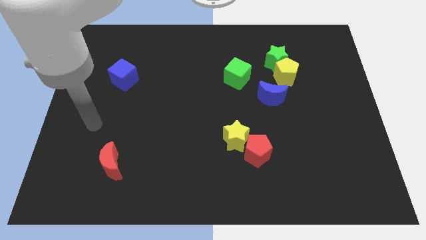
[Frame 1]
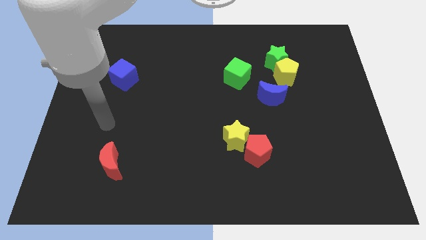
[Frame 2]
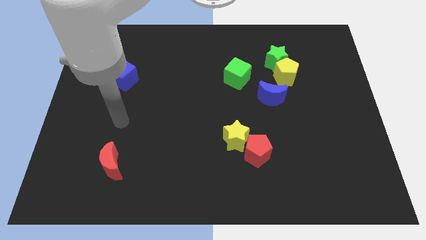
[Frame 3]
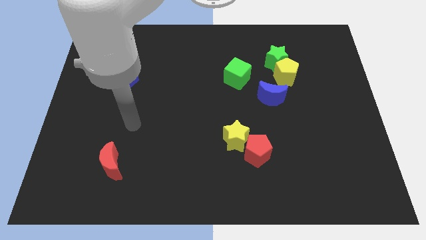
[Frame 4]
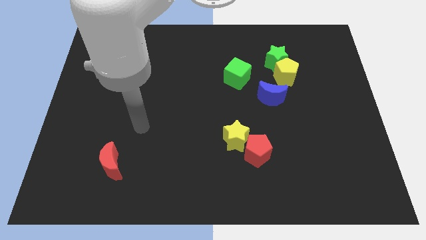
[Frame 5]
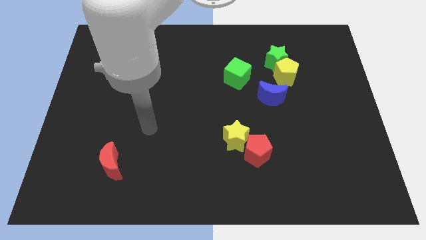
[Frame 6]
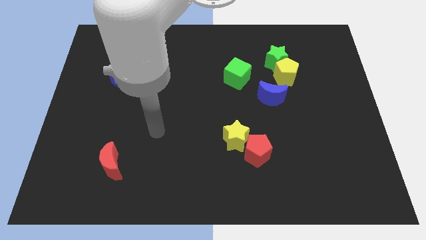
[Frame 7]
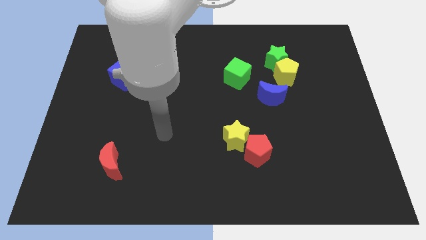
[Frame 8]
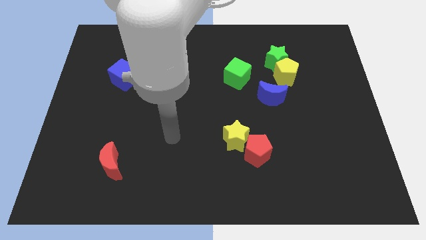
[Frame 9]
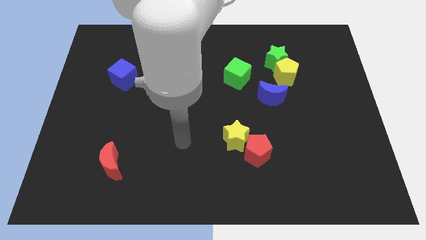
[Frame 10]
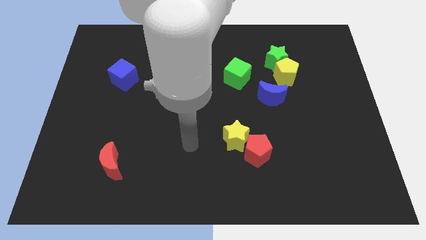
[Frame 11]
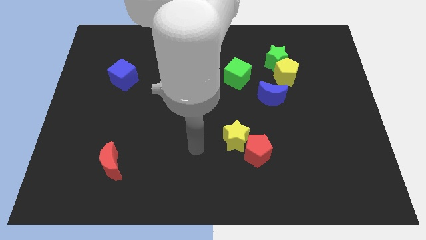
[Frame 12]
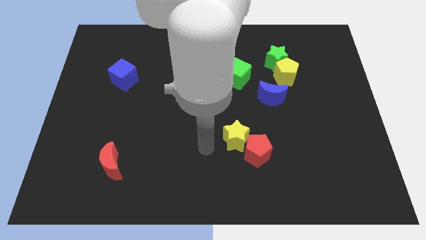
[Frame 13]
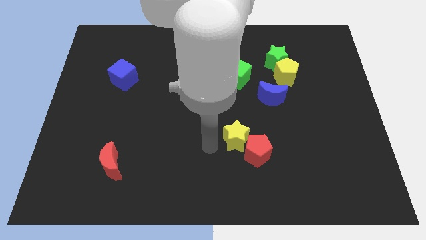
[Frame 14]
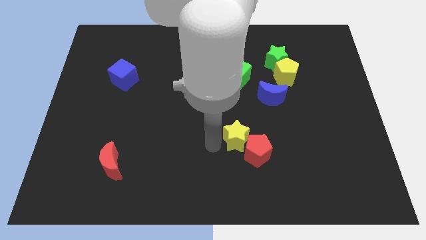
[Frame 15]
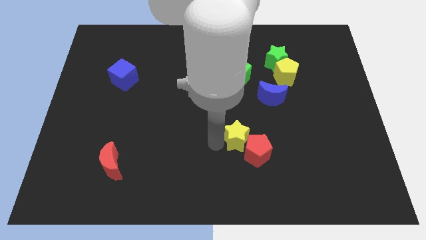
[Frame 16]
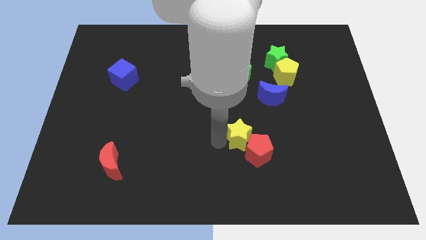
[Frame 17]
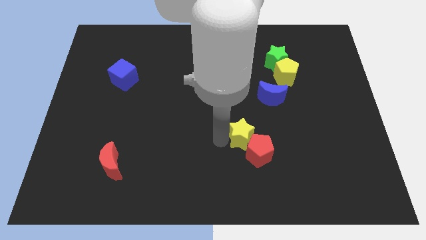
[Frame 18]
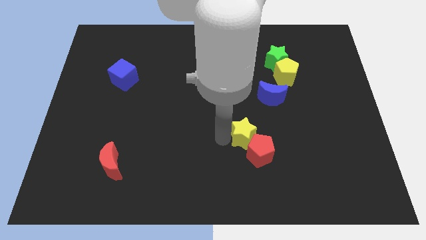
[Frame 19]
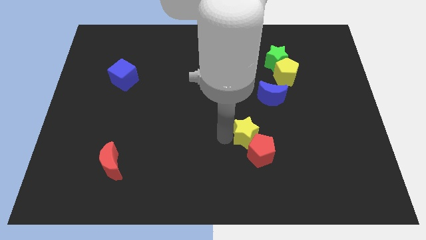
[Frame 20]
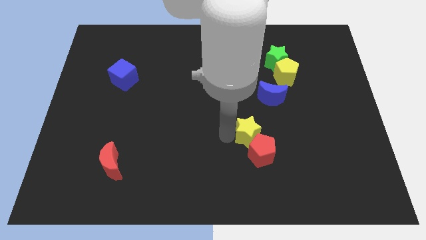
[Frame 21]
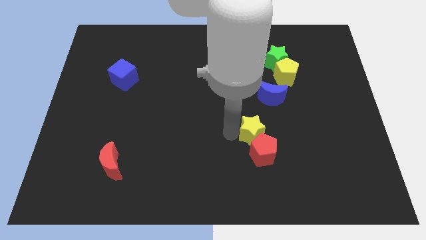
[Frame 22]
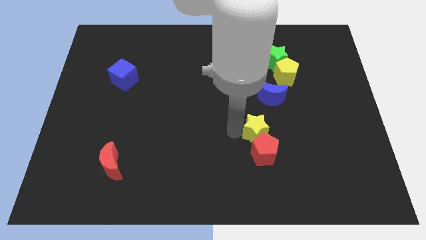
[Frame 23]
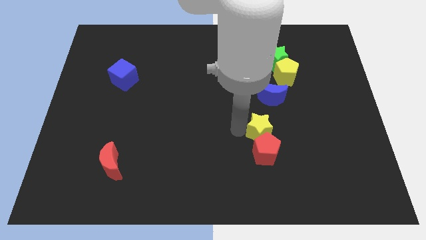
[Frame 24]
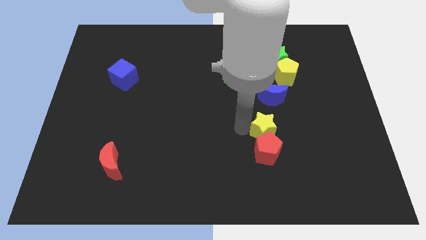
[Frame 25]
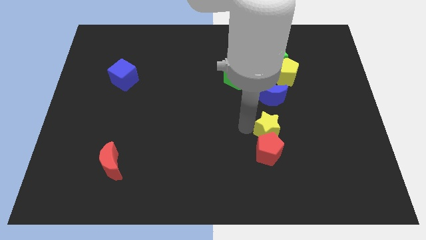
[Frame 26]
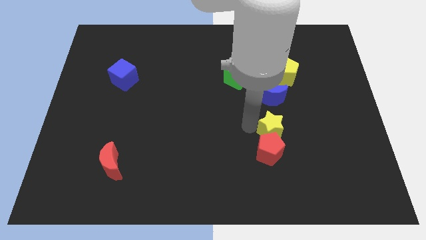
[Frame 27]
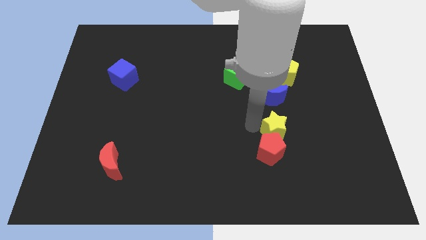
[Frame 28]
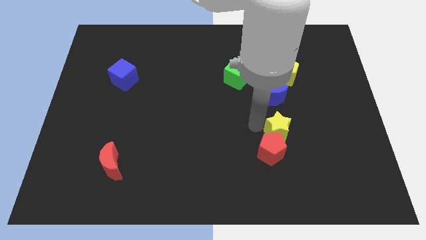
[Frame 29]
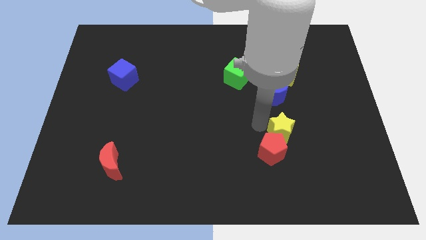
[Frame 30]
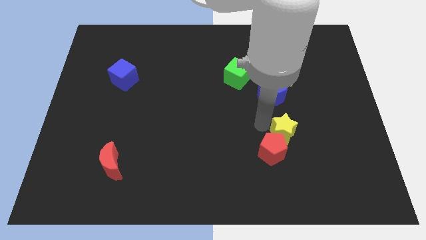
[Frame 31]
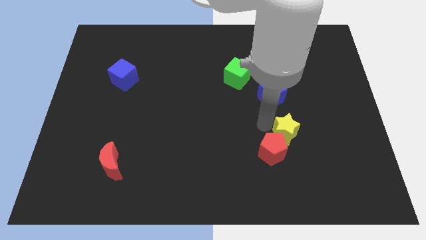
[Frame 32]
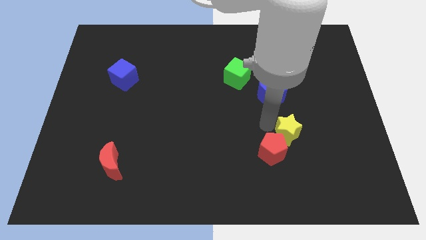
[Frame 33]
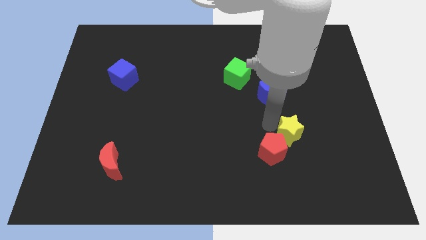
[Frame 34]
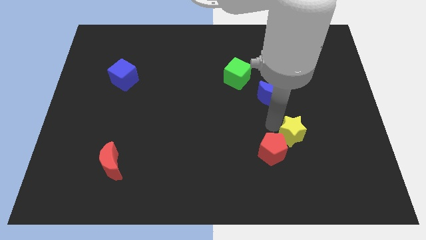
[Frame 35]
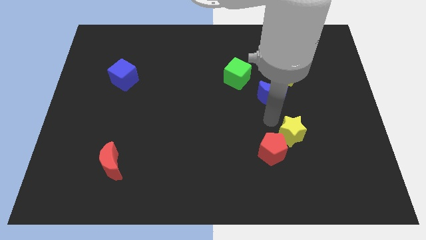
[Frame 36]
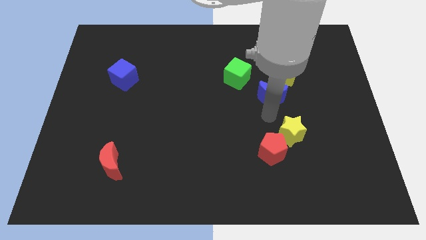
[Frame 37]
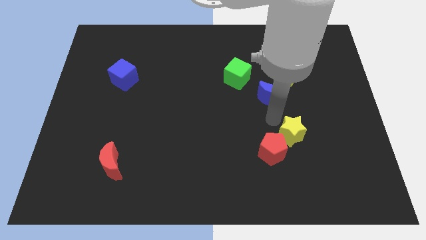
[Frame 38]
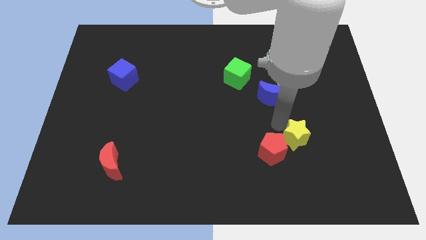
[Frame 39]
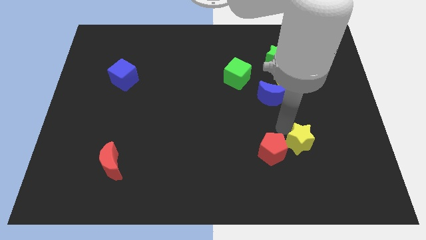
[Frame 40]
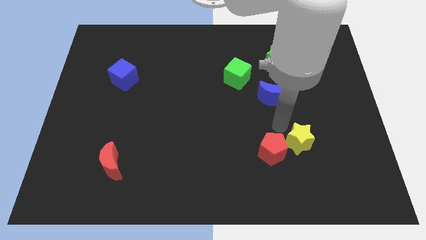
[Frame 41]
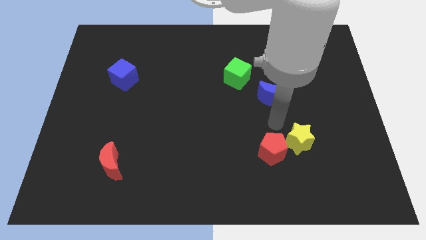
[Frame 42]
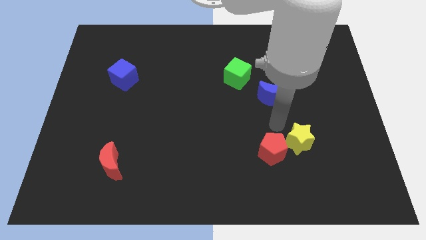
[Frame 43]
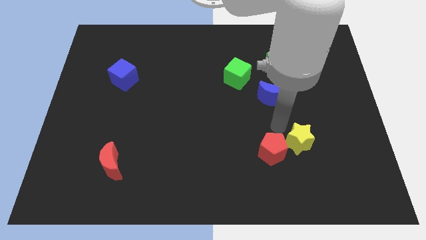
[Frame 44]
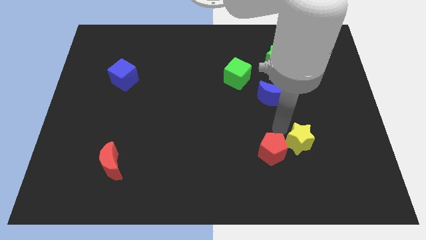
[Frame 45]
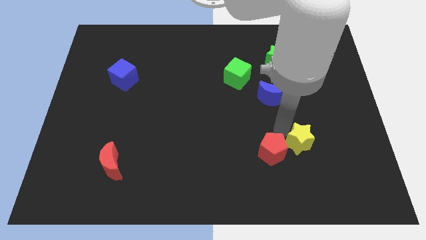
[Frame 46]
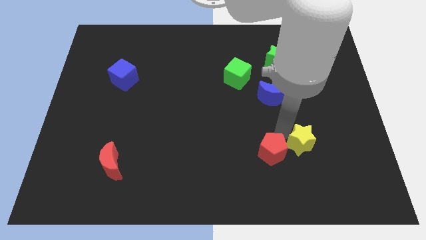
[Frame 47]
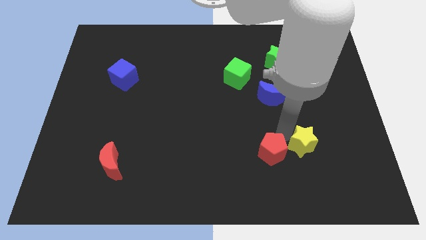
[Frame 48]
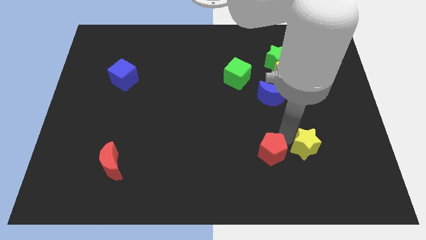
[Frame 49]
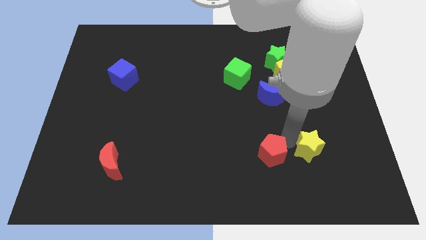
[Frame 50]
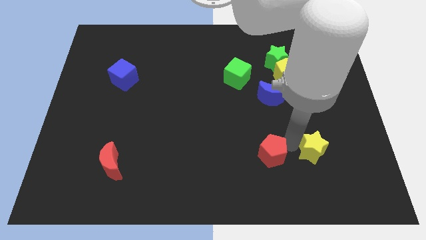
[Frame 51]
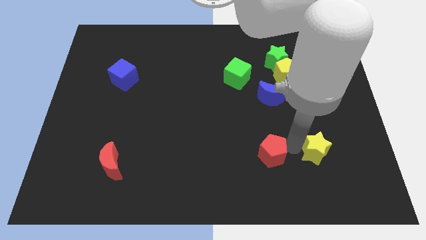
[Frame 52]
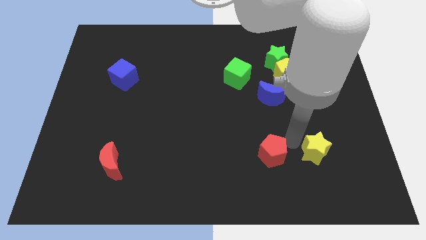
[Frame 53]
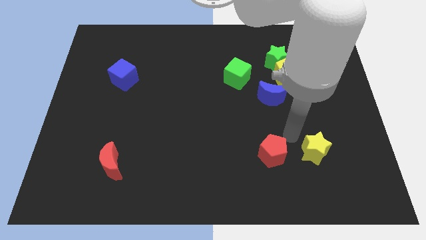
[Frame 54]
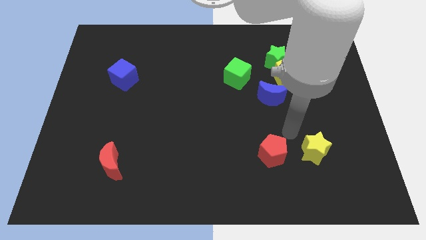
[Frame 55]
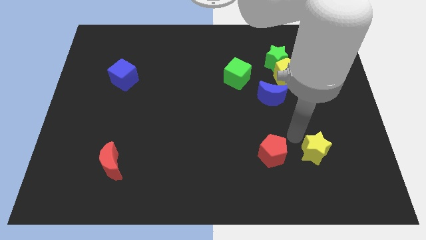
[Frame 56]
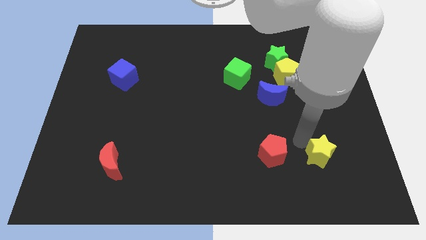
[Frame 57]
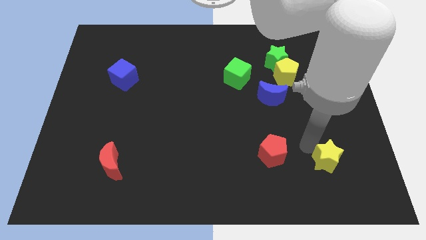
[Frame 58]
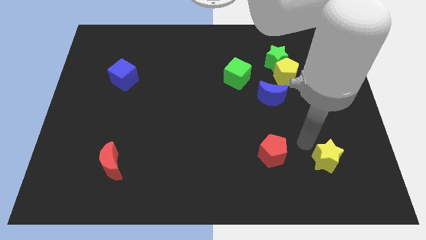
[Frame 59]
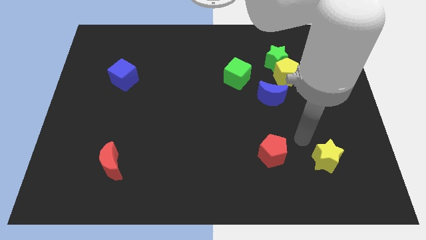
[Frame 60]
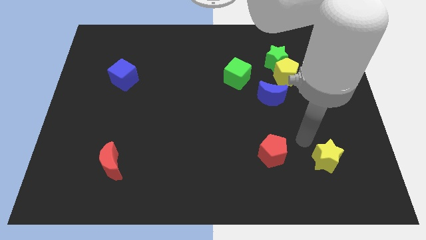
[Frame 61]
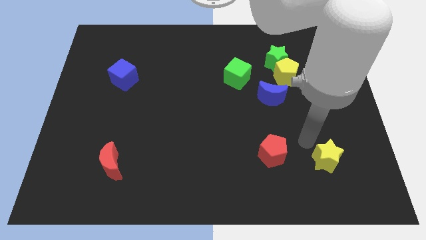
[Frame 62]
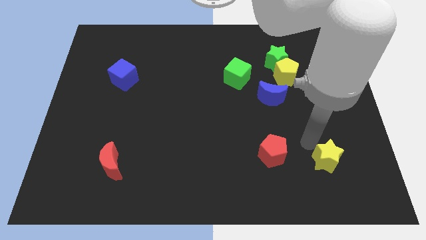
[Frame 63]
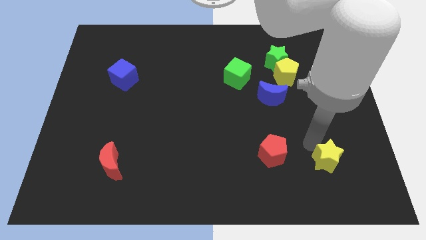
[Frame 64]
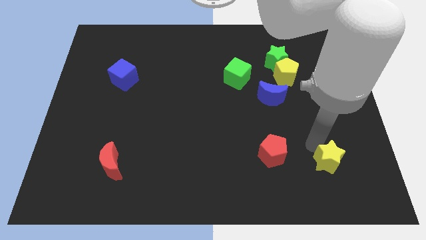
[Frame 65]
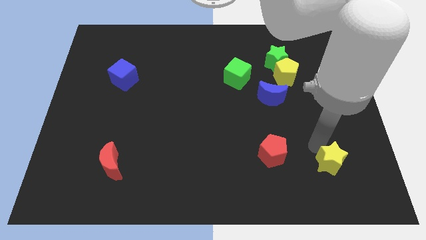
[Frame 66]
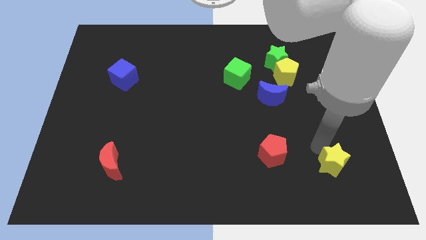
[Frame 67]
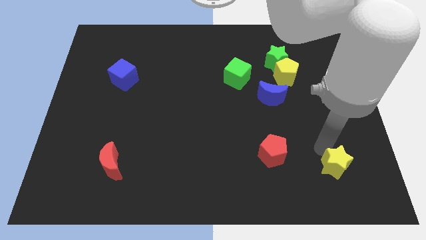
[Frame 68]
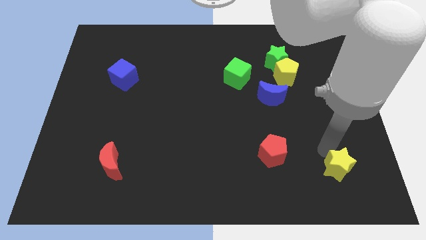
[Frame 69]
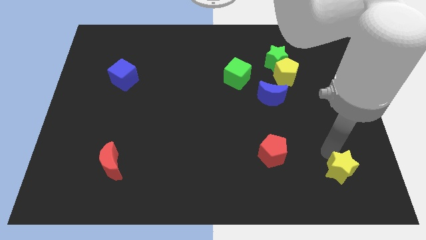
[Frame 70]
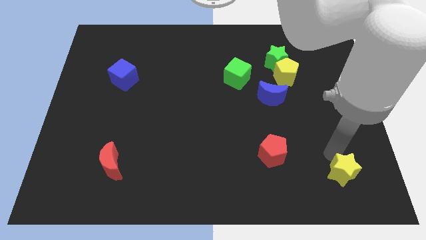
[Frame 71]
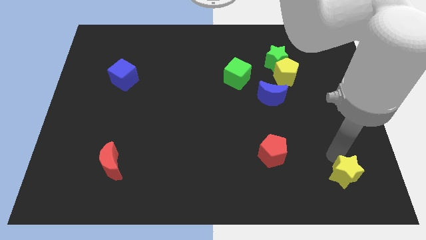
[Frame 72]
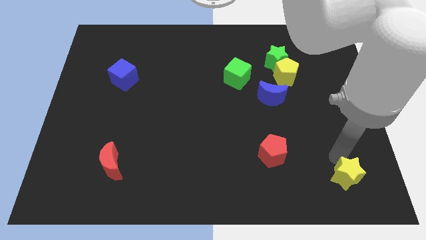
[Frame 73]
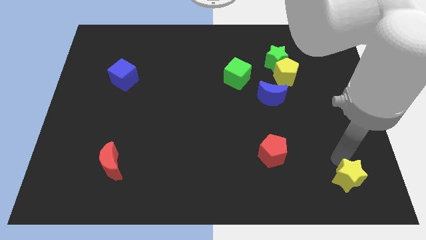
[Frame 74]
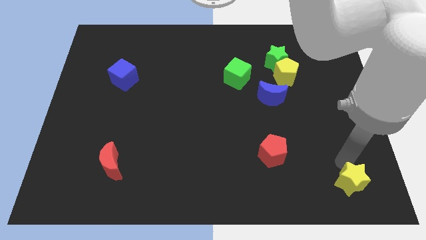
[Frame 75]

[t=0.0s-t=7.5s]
push the yellow star to the bottom right of the board
